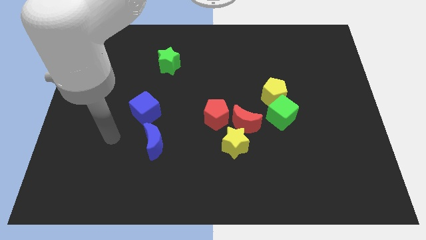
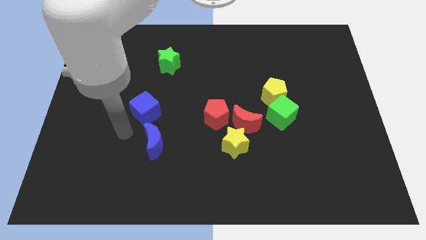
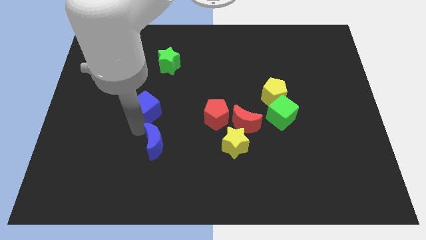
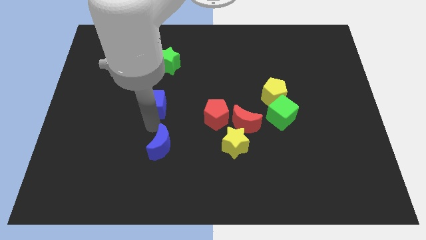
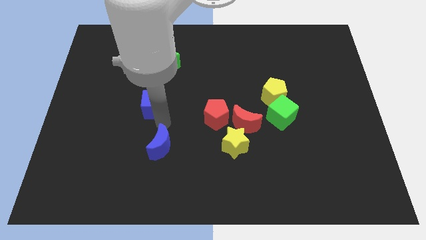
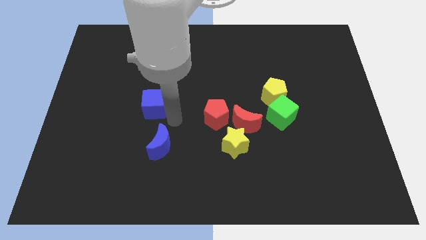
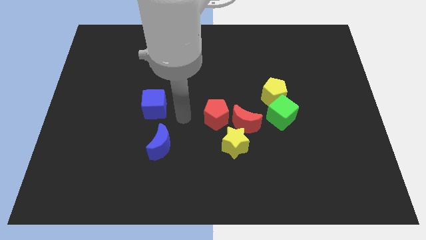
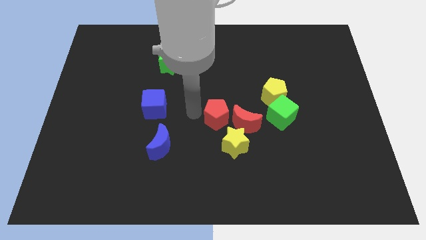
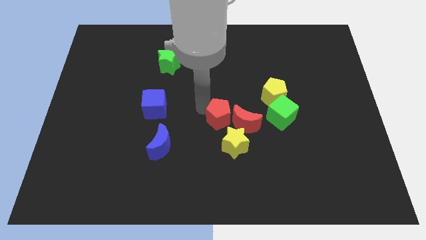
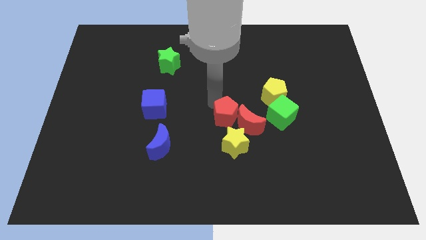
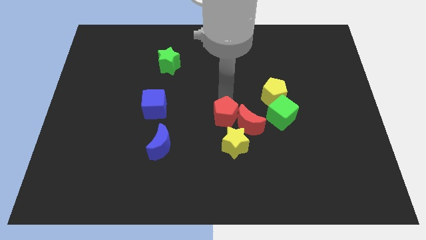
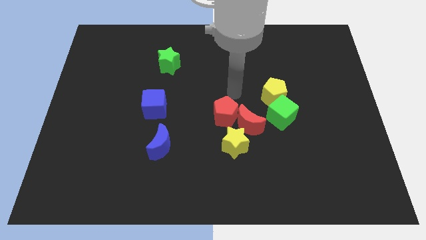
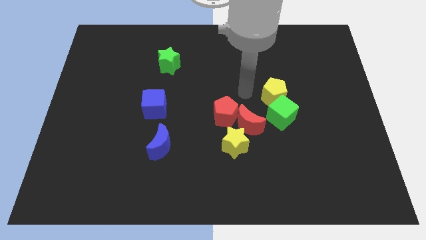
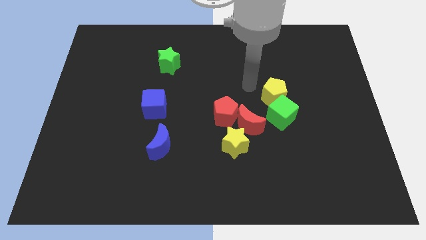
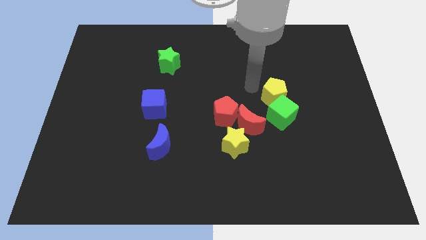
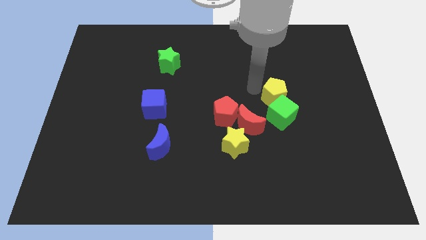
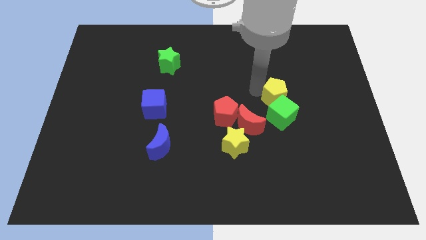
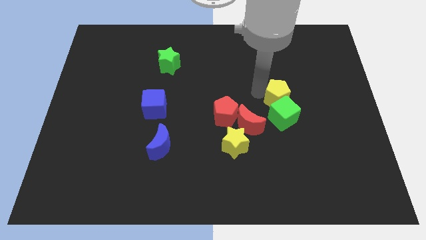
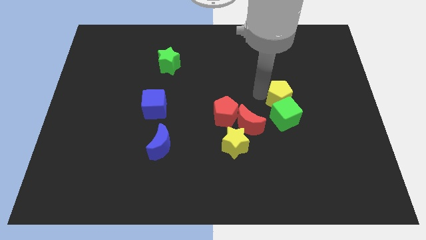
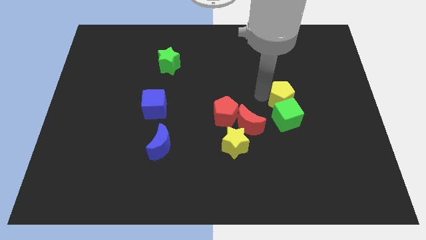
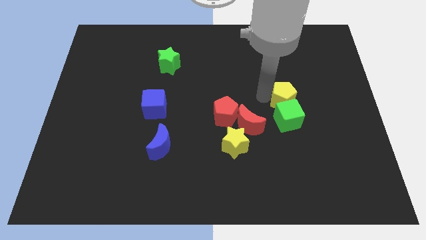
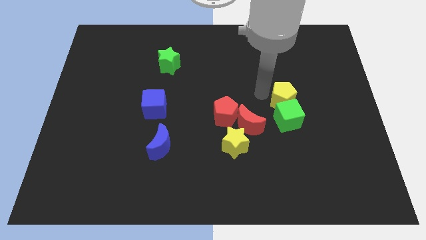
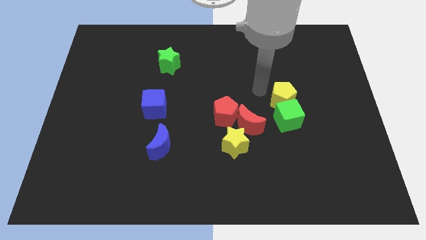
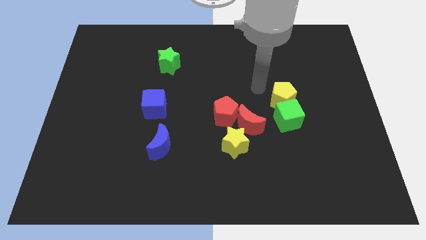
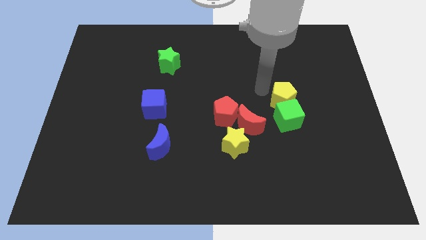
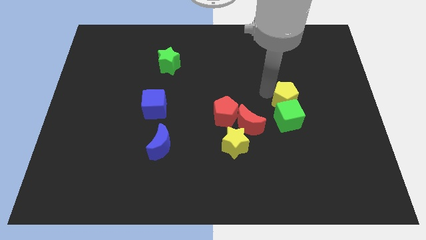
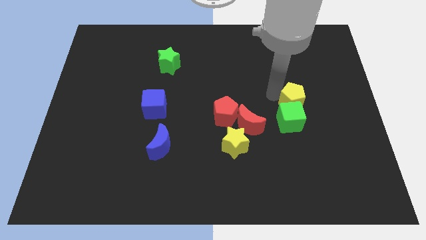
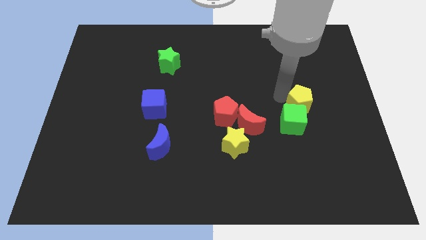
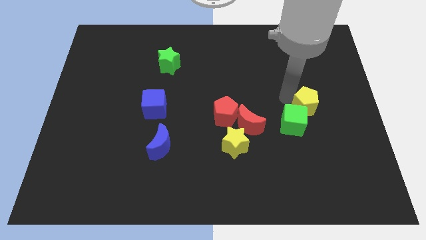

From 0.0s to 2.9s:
slide the yellow pentagon slightly downwards and to the right

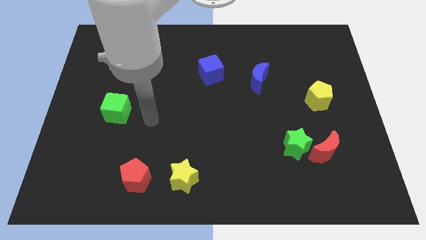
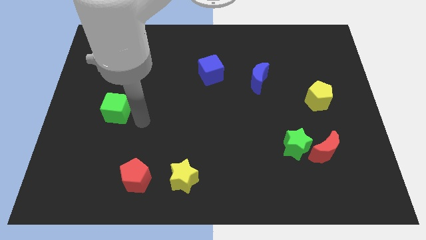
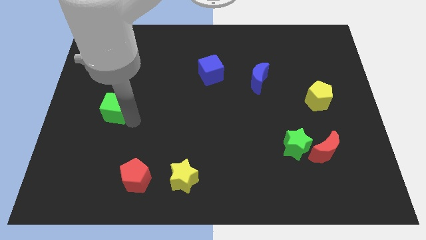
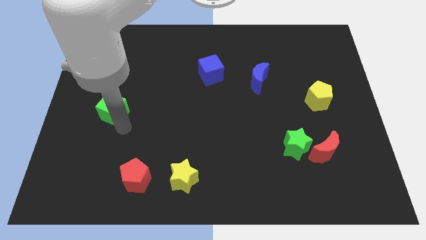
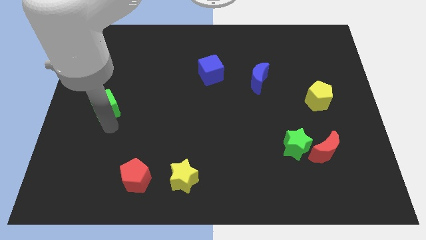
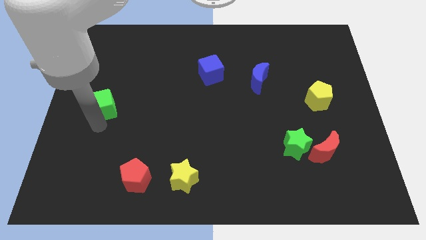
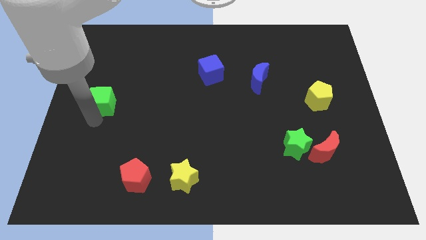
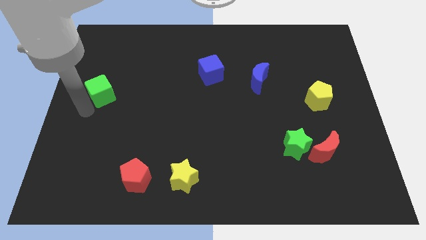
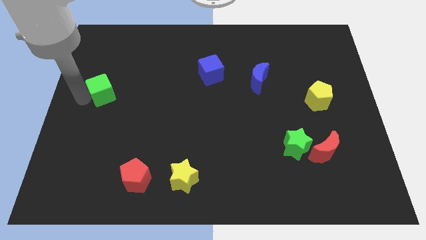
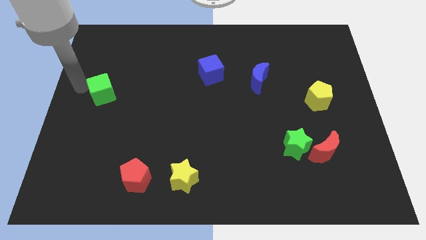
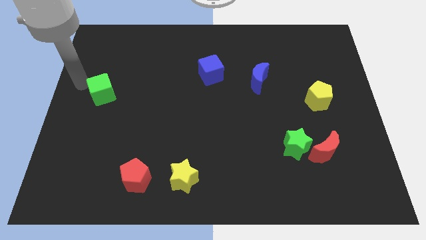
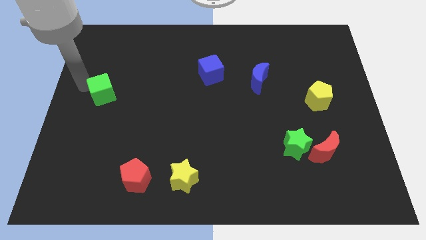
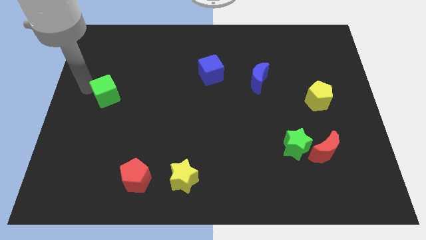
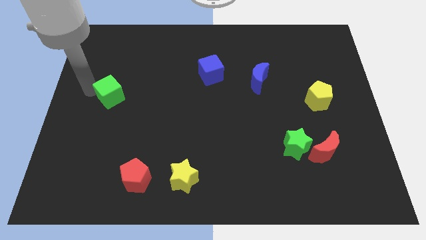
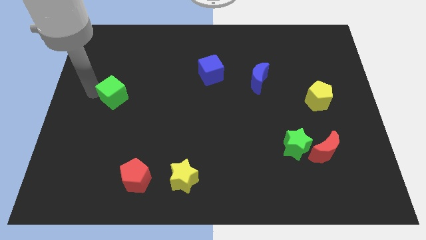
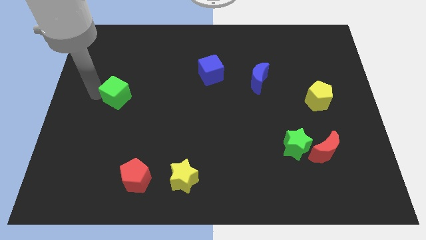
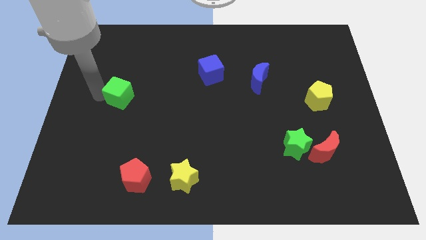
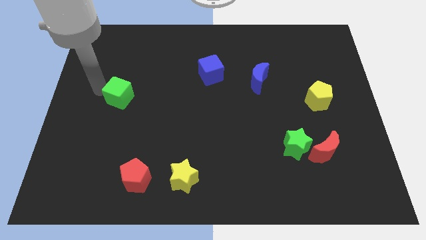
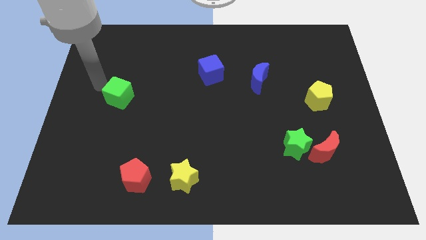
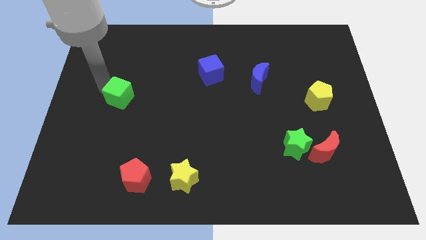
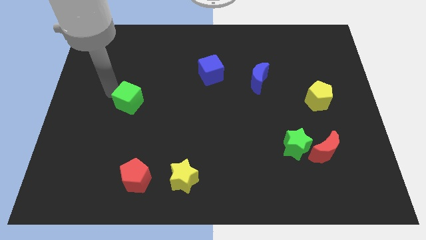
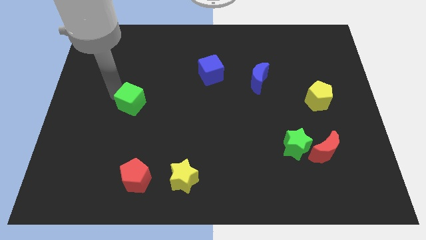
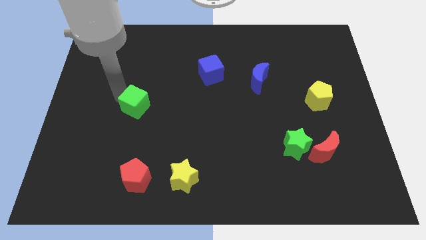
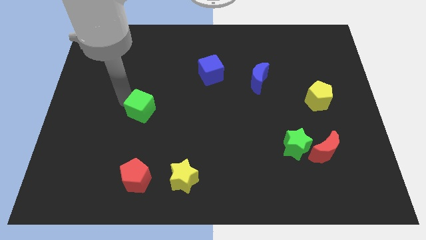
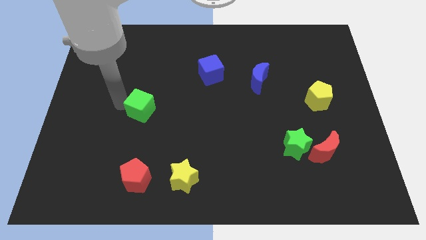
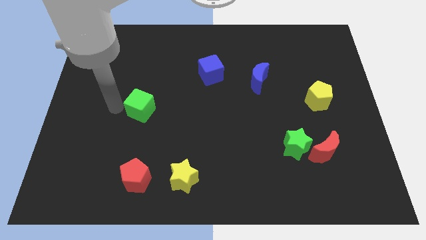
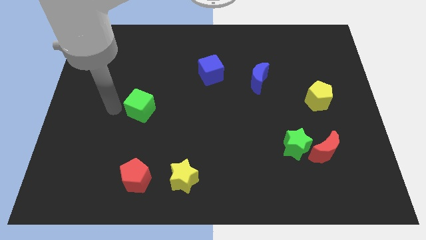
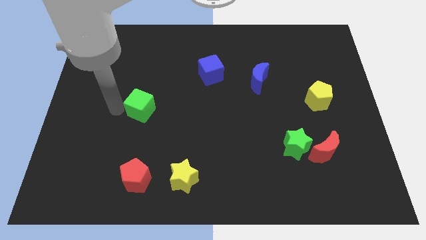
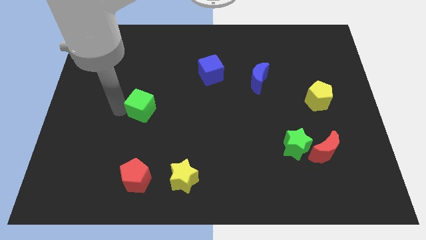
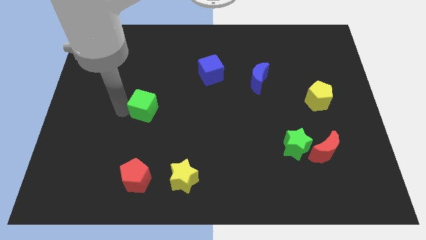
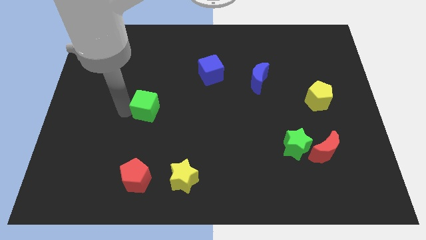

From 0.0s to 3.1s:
push the green cube slightly right

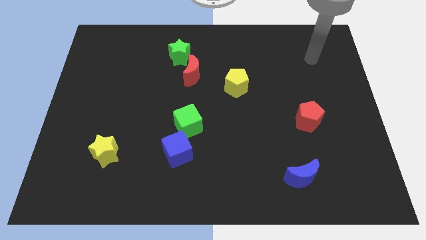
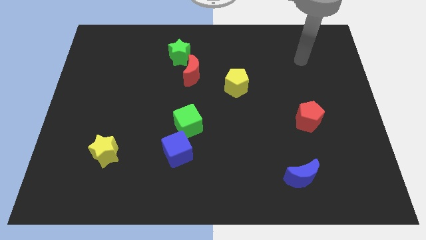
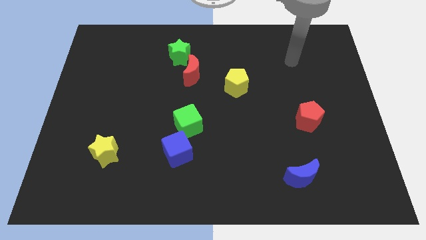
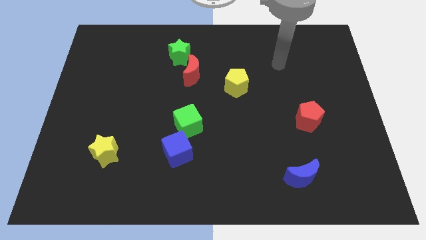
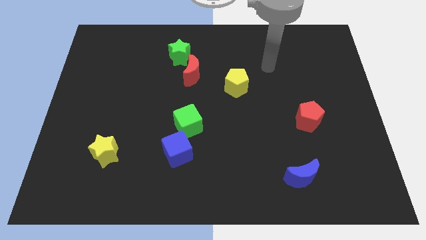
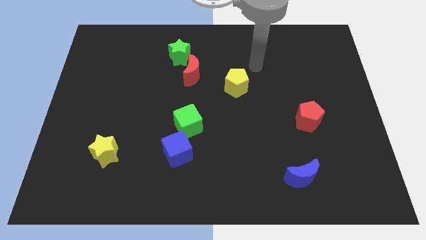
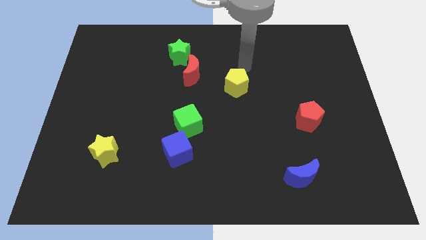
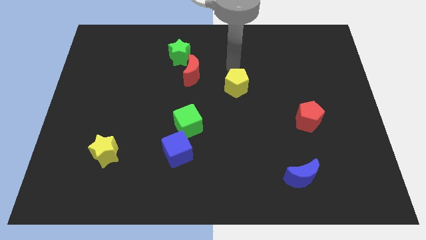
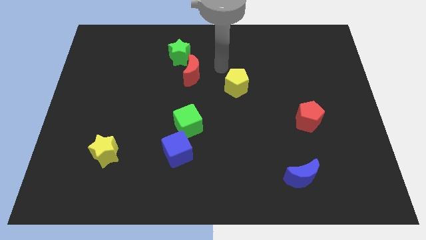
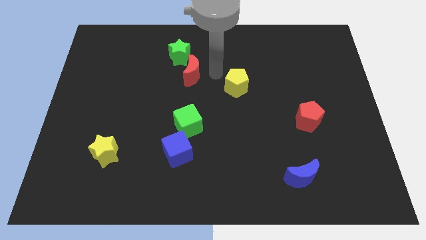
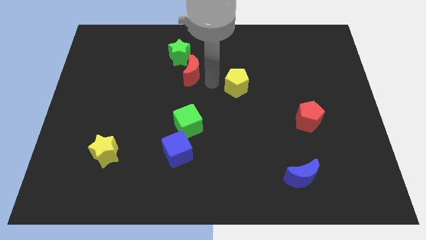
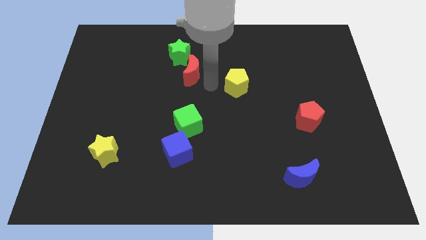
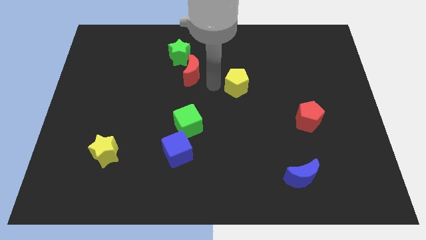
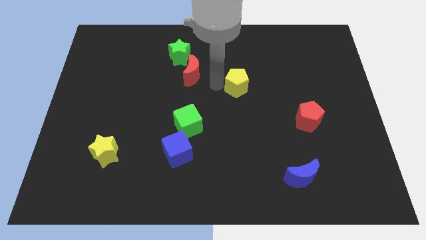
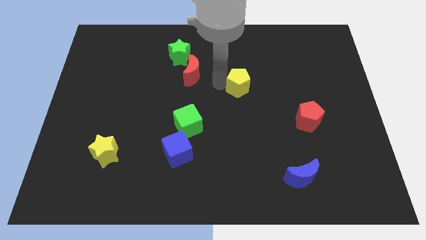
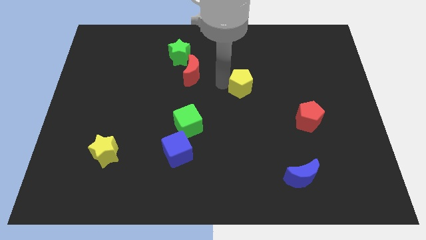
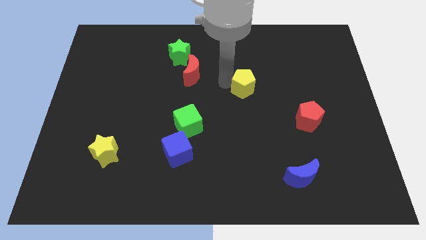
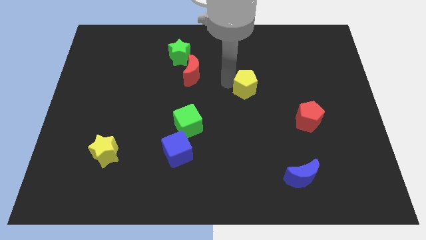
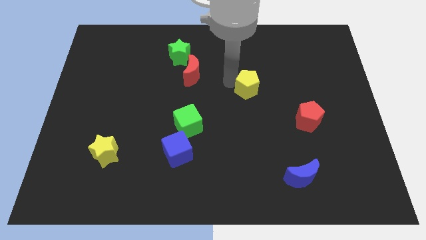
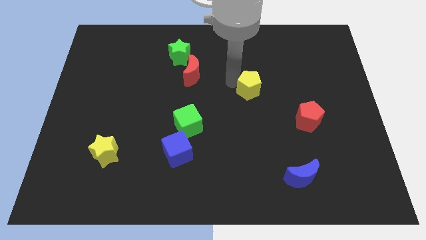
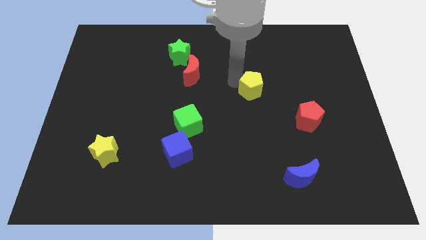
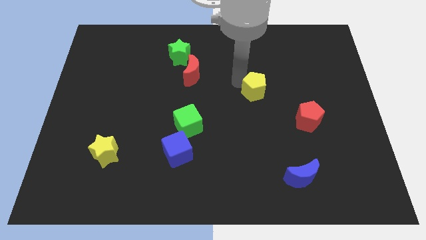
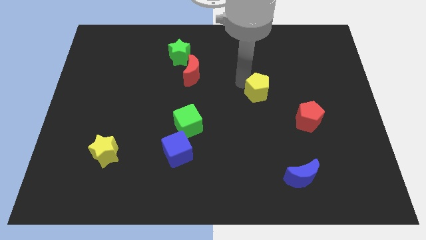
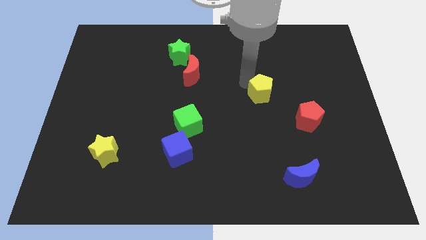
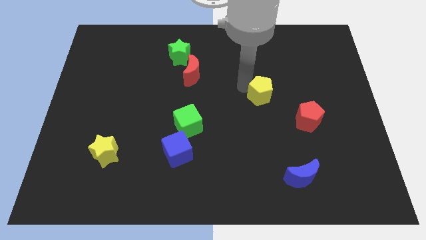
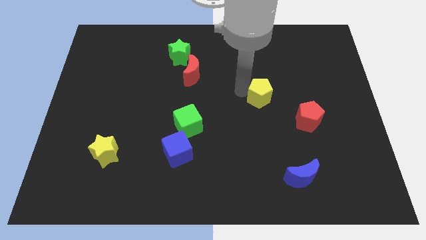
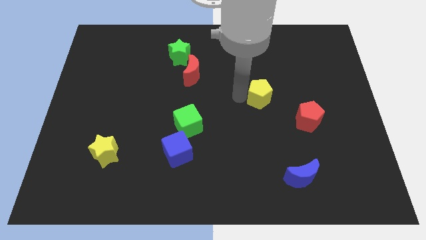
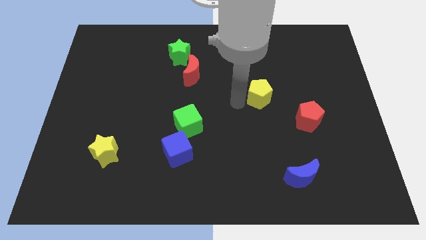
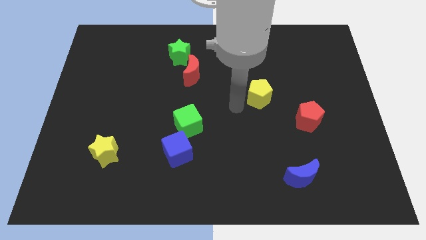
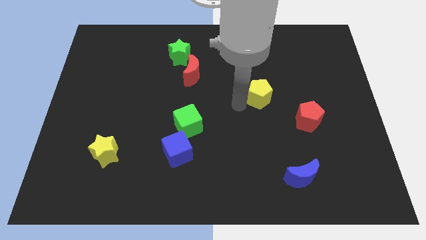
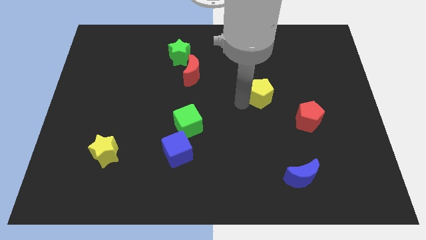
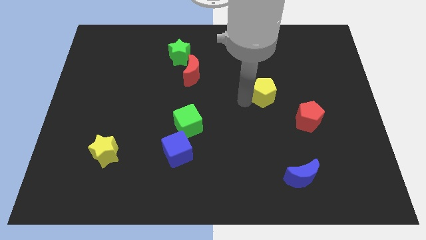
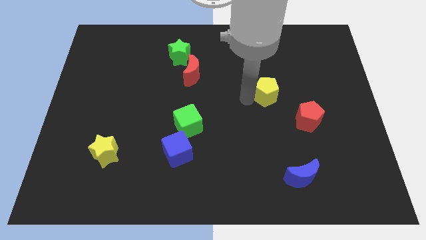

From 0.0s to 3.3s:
slide the yellow pentagon to the right somewhat
